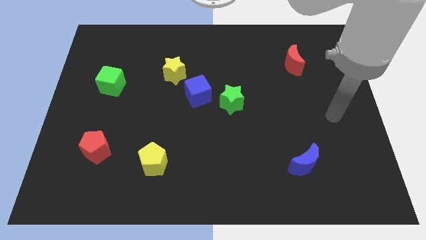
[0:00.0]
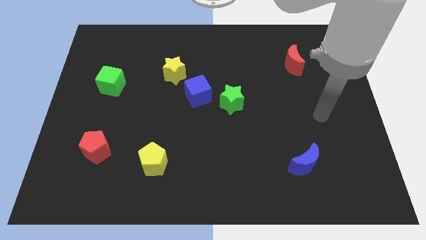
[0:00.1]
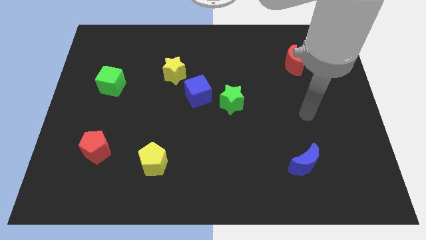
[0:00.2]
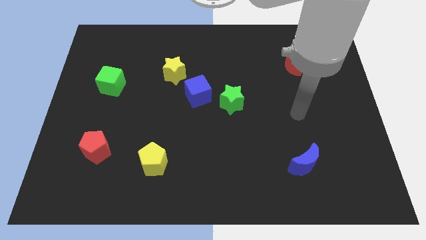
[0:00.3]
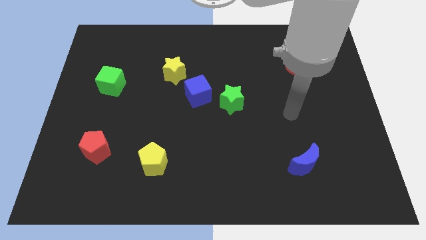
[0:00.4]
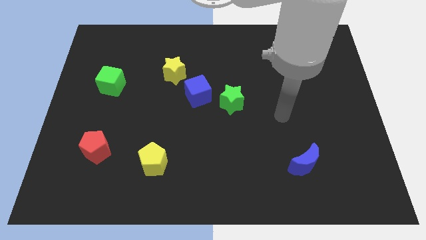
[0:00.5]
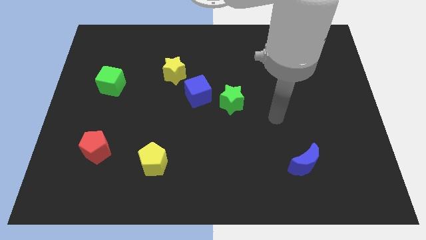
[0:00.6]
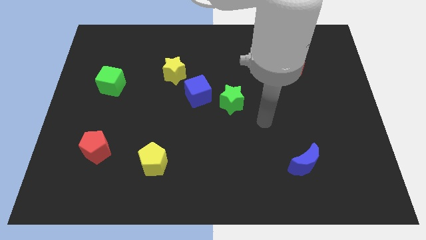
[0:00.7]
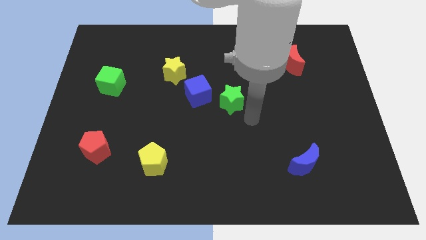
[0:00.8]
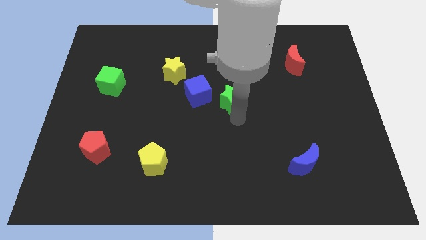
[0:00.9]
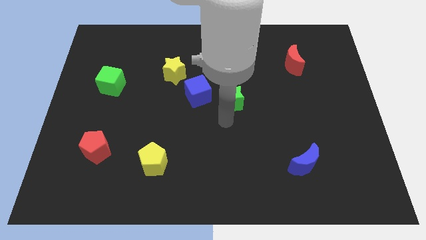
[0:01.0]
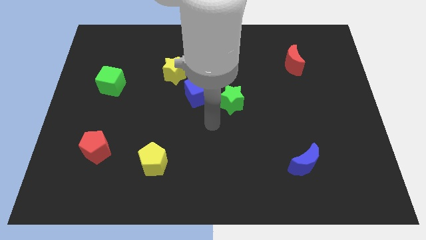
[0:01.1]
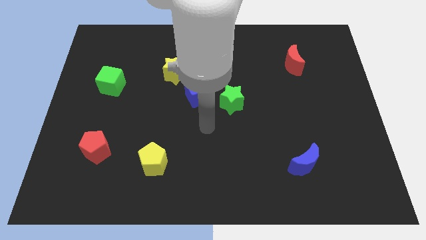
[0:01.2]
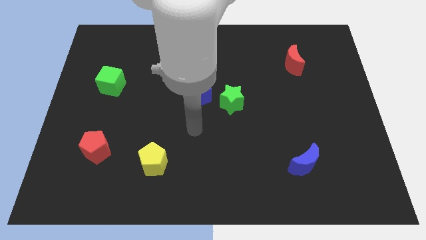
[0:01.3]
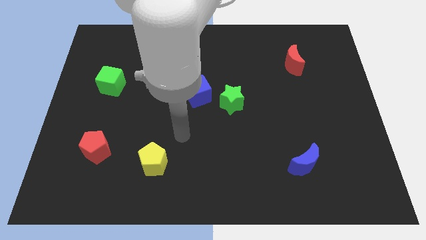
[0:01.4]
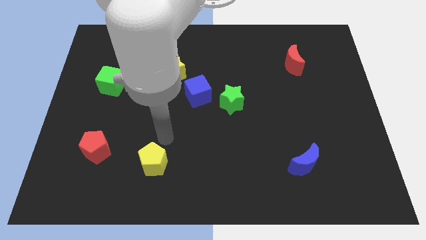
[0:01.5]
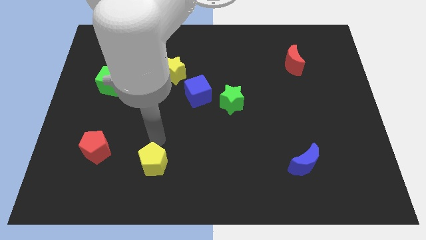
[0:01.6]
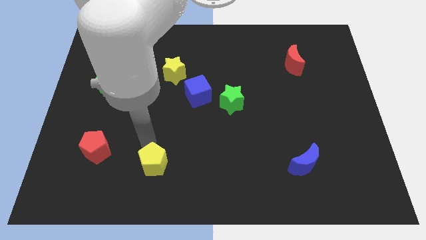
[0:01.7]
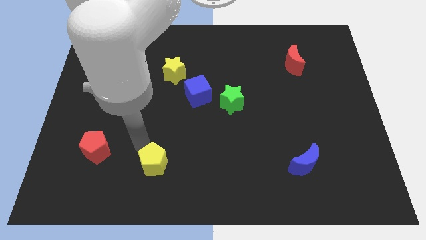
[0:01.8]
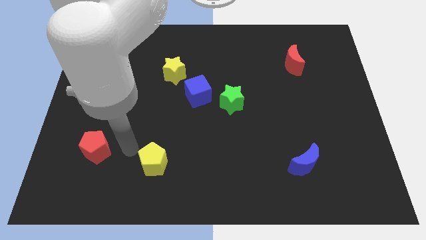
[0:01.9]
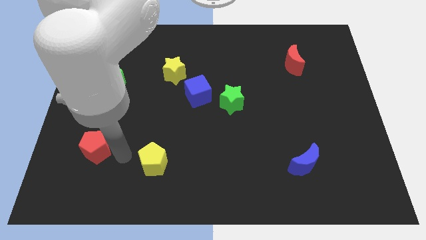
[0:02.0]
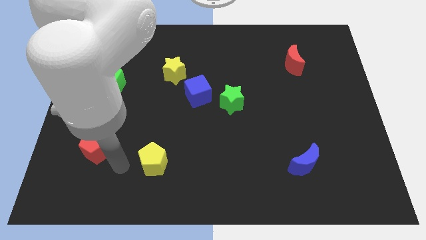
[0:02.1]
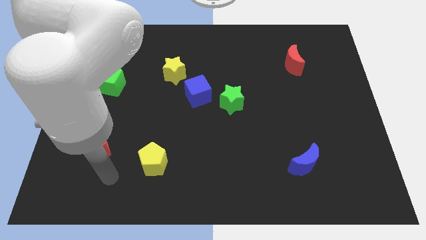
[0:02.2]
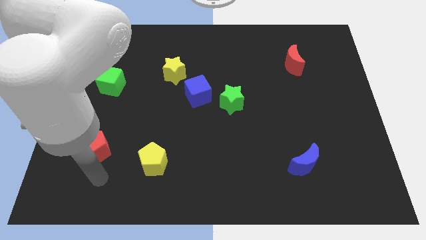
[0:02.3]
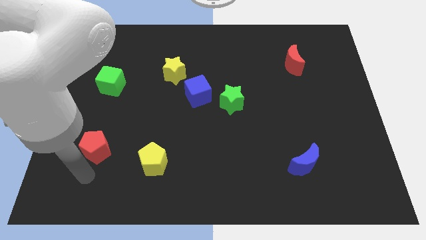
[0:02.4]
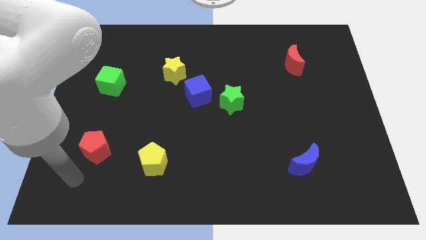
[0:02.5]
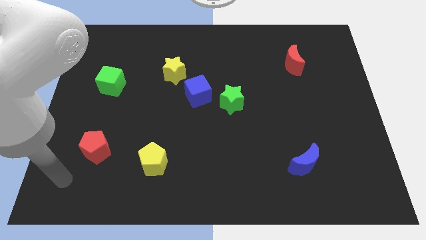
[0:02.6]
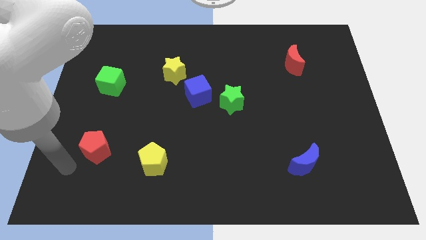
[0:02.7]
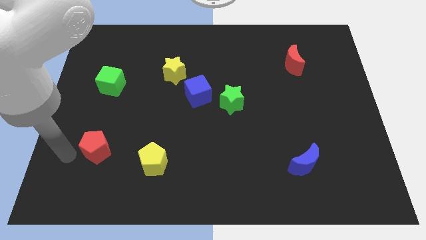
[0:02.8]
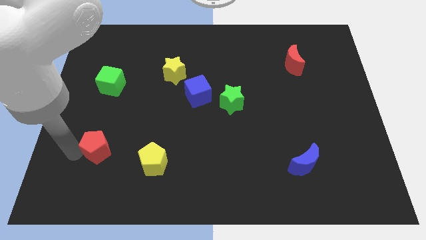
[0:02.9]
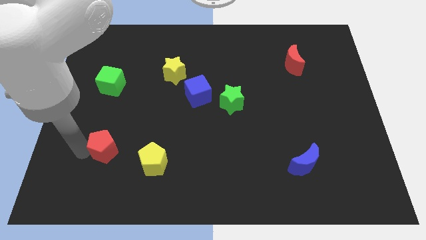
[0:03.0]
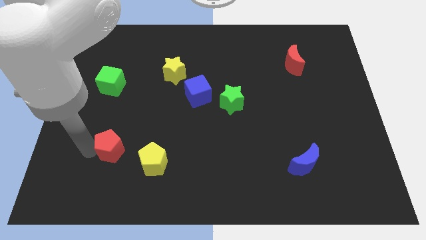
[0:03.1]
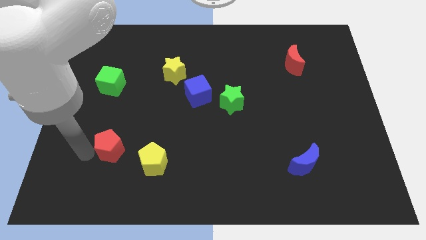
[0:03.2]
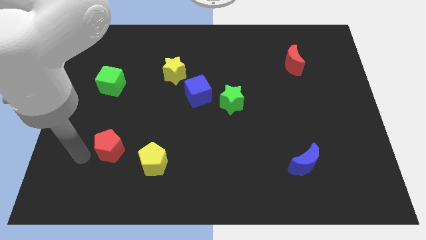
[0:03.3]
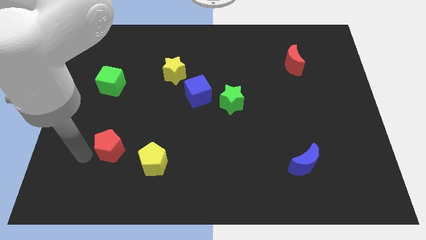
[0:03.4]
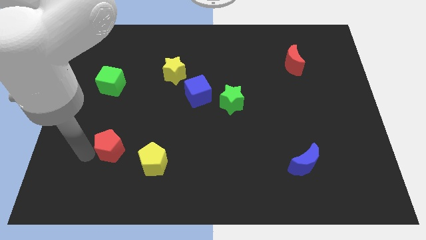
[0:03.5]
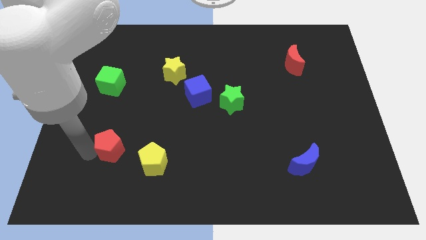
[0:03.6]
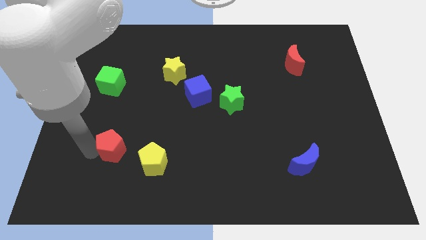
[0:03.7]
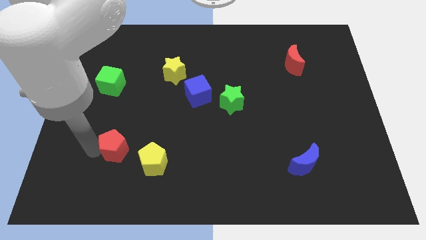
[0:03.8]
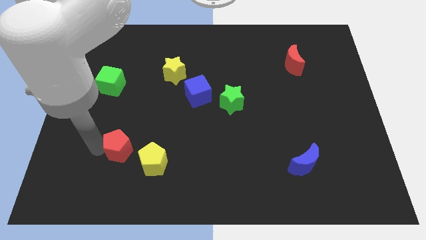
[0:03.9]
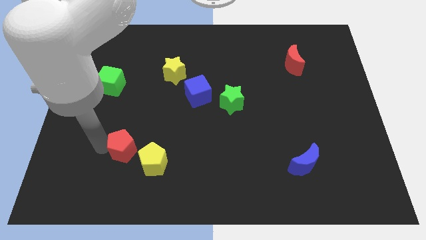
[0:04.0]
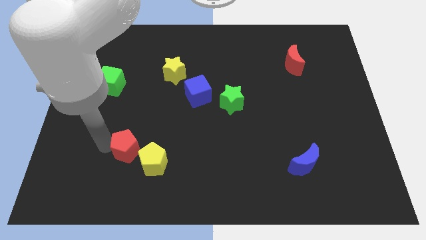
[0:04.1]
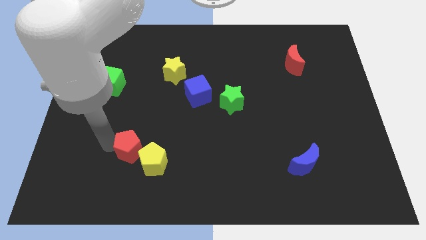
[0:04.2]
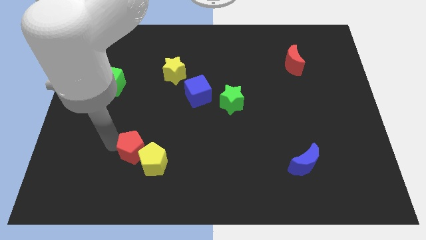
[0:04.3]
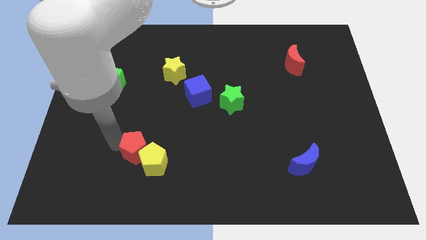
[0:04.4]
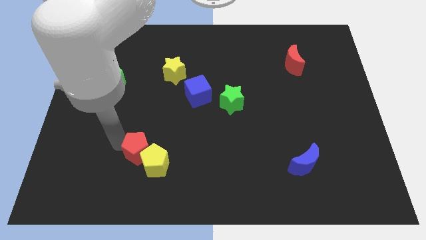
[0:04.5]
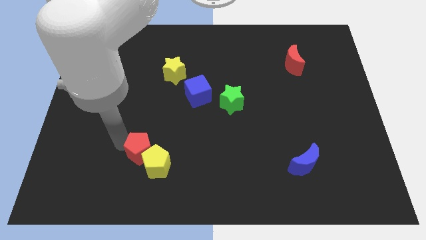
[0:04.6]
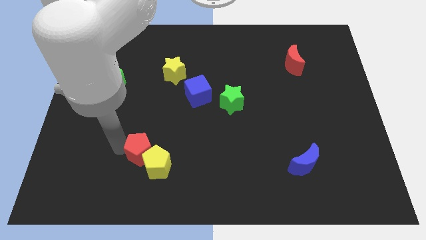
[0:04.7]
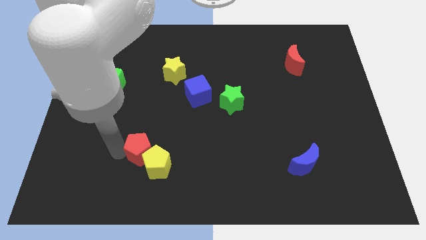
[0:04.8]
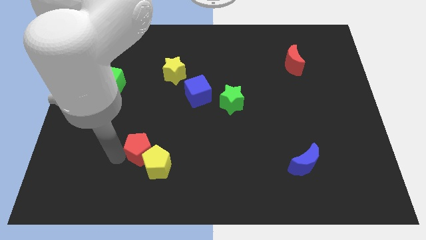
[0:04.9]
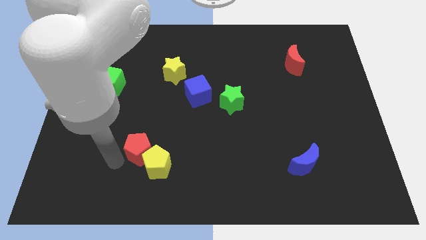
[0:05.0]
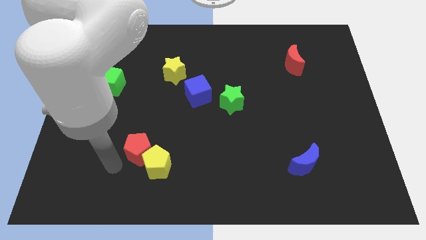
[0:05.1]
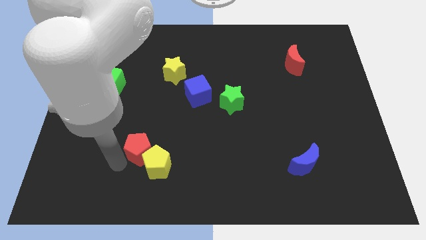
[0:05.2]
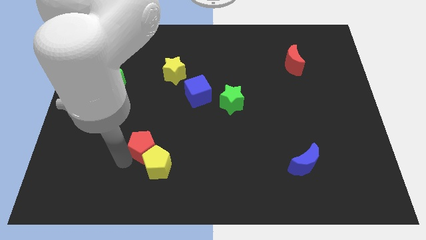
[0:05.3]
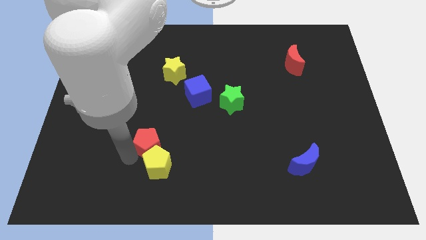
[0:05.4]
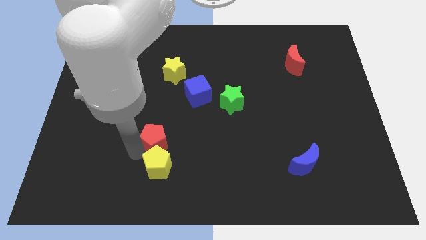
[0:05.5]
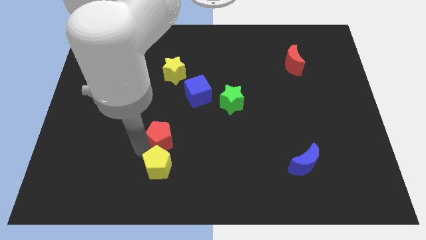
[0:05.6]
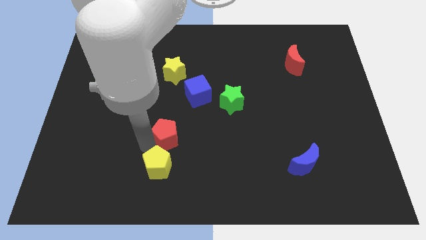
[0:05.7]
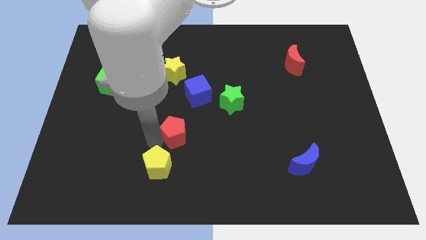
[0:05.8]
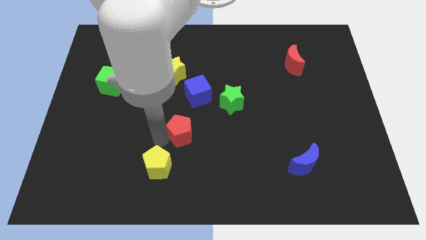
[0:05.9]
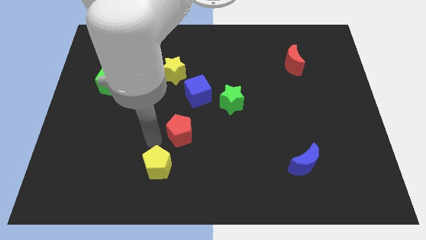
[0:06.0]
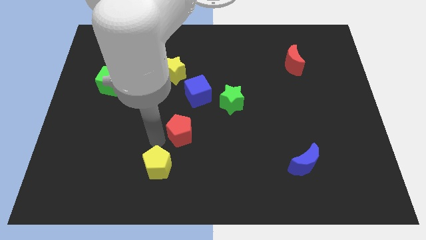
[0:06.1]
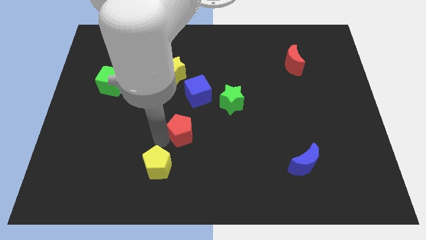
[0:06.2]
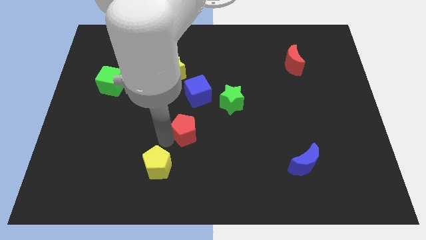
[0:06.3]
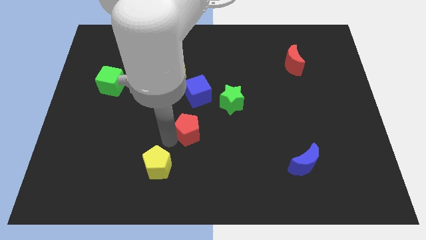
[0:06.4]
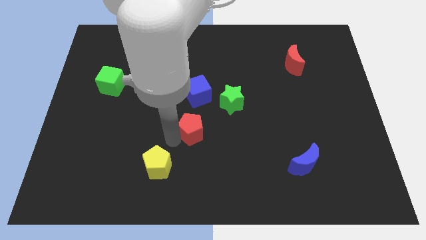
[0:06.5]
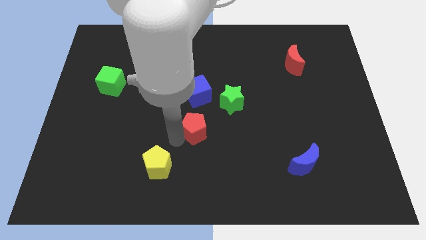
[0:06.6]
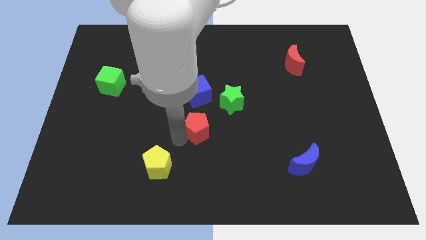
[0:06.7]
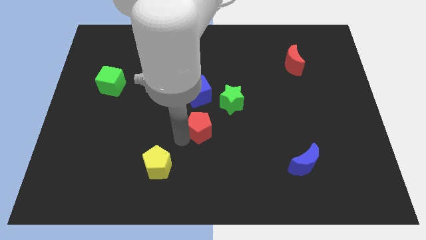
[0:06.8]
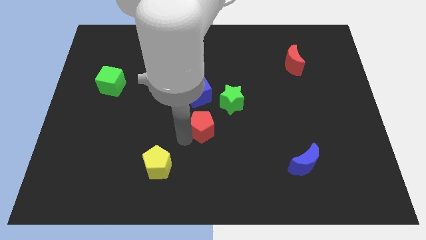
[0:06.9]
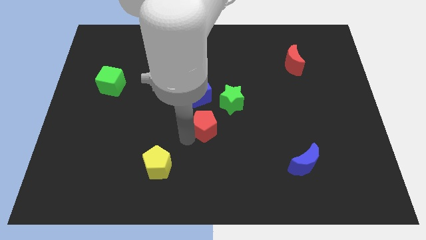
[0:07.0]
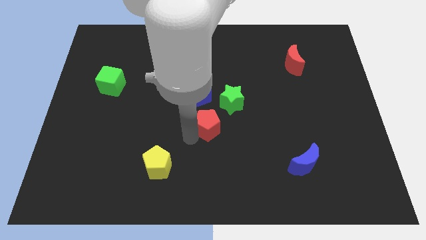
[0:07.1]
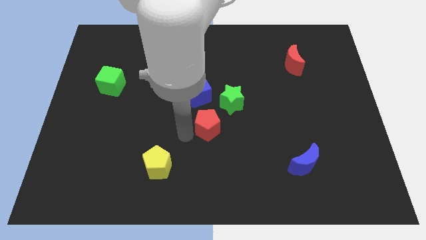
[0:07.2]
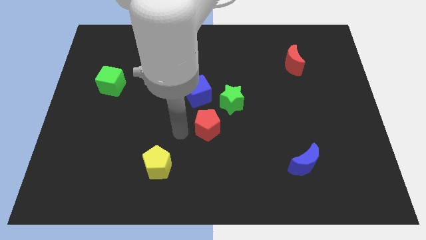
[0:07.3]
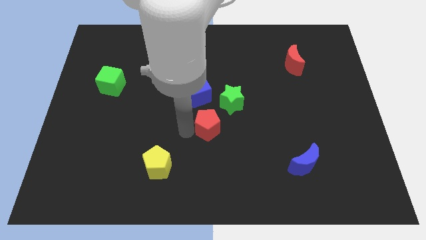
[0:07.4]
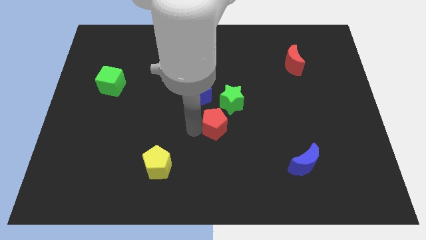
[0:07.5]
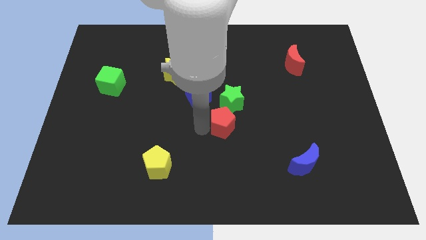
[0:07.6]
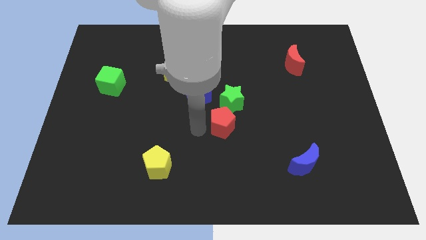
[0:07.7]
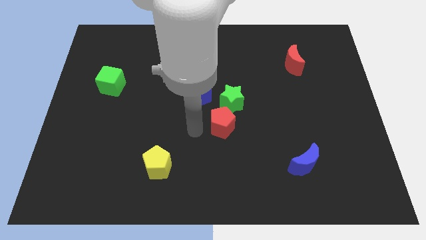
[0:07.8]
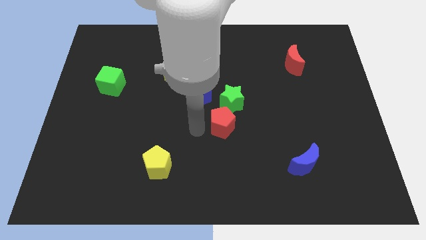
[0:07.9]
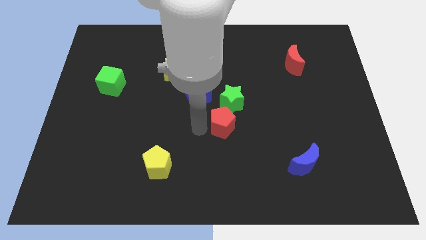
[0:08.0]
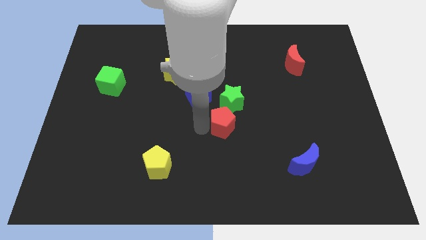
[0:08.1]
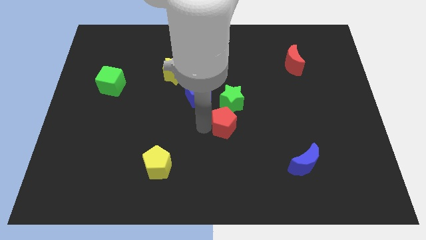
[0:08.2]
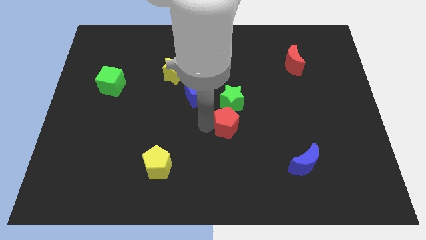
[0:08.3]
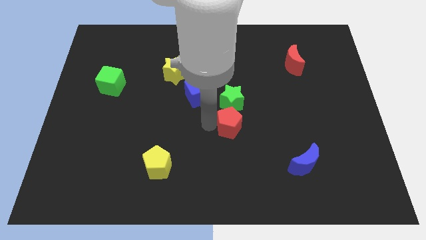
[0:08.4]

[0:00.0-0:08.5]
slide the red pentagon diagonally down and to the right of the green star
